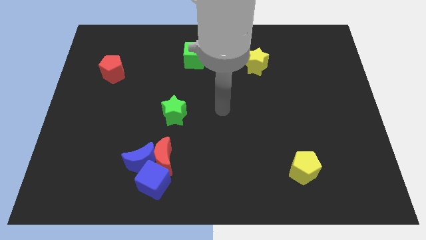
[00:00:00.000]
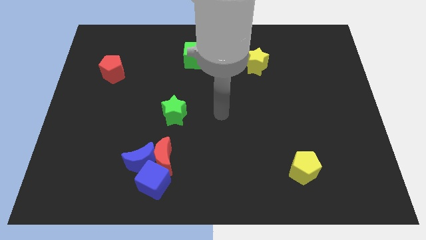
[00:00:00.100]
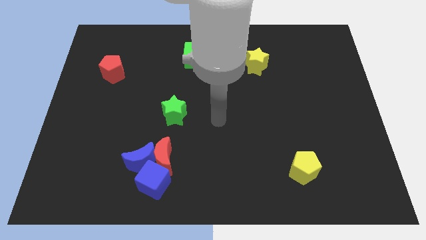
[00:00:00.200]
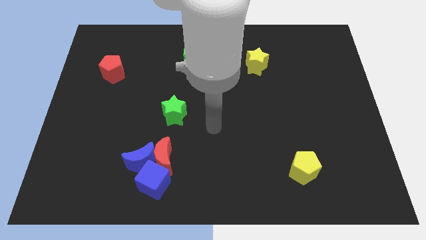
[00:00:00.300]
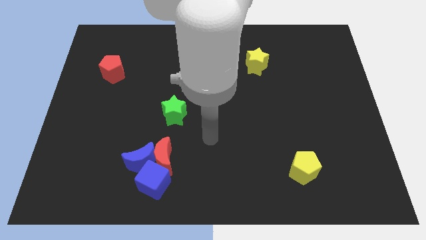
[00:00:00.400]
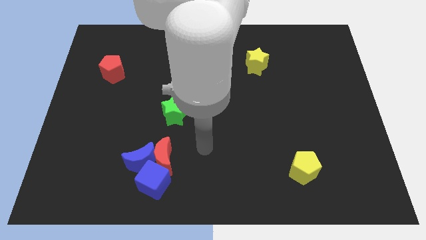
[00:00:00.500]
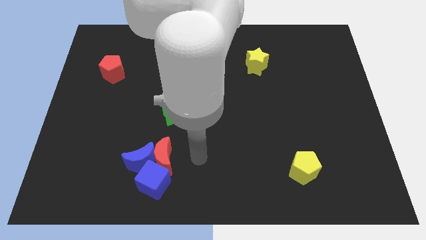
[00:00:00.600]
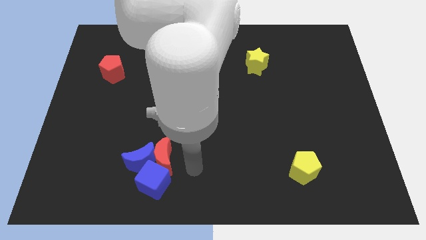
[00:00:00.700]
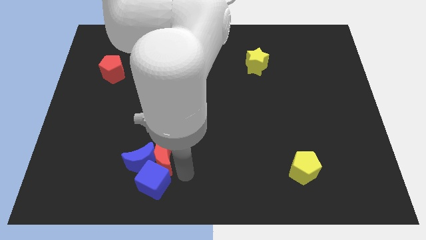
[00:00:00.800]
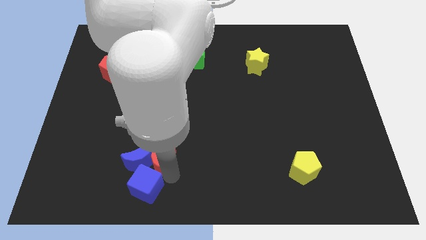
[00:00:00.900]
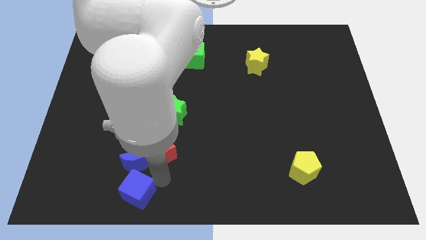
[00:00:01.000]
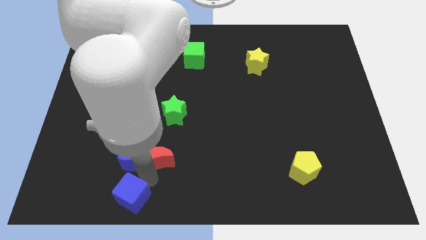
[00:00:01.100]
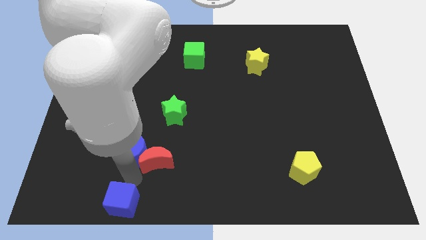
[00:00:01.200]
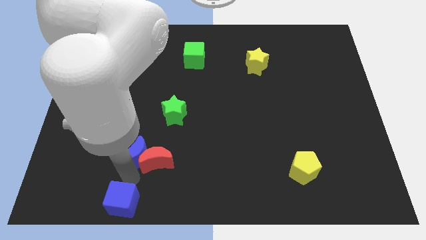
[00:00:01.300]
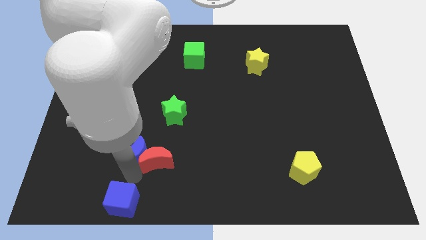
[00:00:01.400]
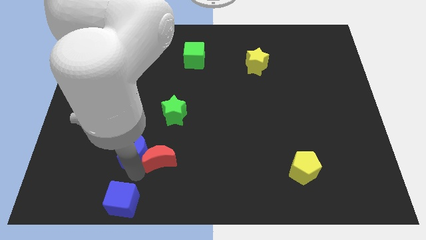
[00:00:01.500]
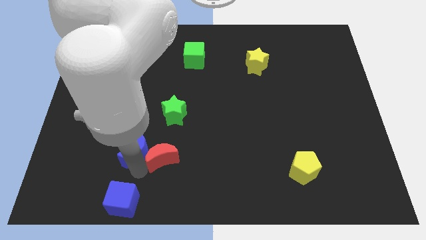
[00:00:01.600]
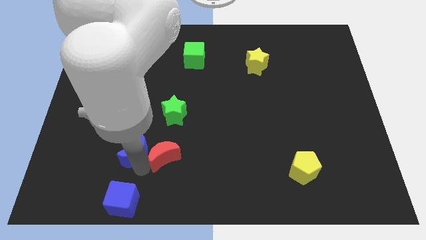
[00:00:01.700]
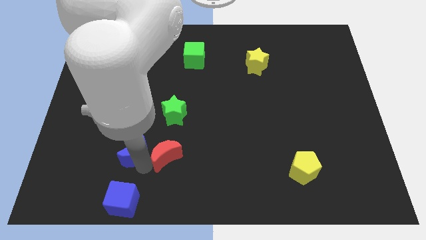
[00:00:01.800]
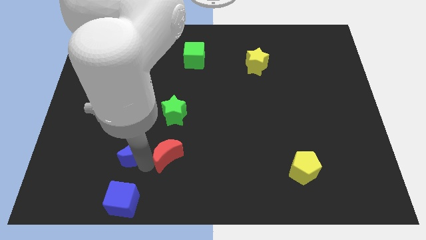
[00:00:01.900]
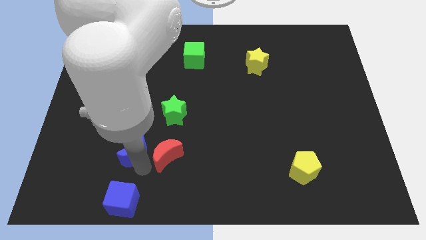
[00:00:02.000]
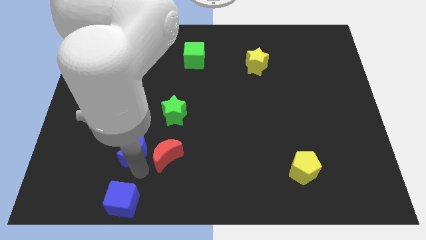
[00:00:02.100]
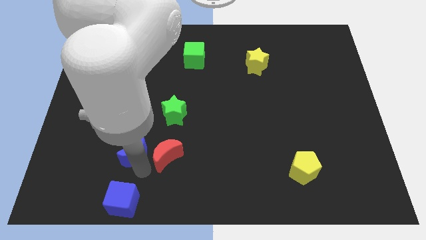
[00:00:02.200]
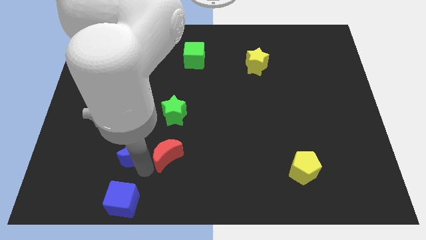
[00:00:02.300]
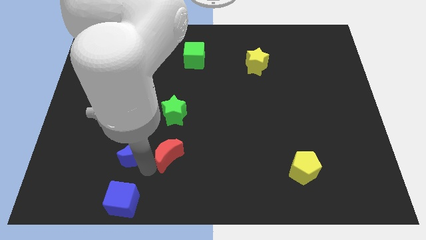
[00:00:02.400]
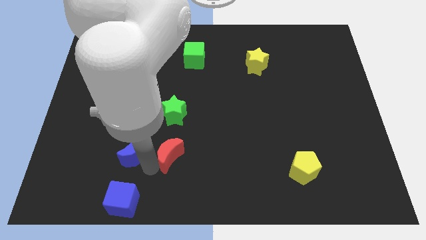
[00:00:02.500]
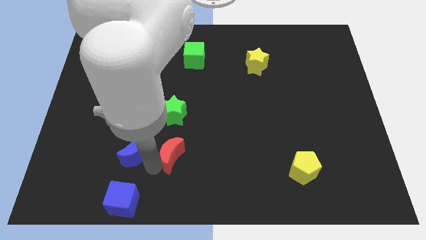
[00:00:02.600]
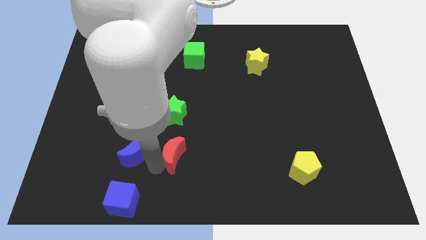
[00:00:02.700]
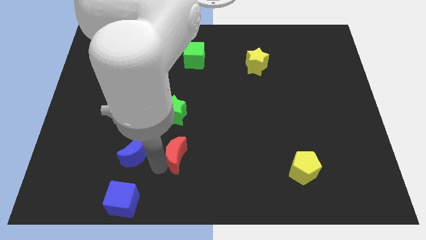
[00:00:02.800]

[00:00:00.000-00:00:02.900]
pull the red moon apart from the blue moon and blue cube

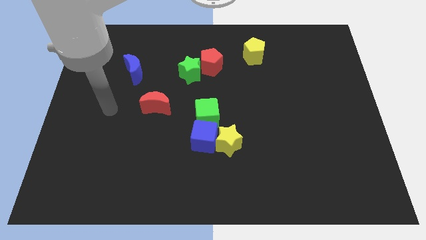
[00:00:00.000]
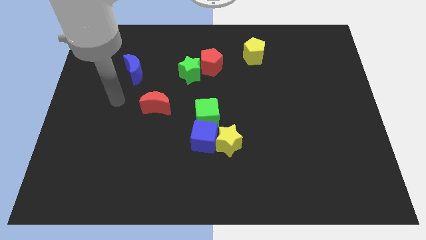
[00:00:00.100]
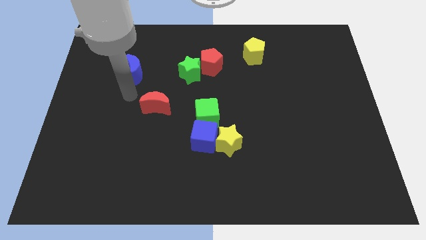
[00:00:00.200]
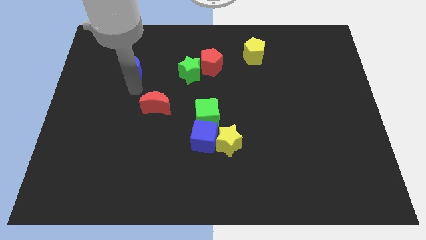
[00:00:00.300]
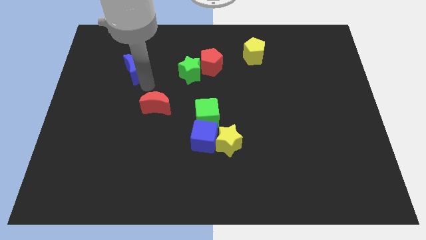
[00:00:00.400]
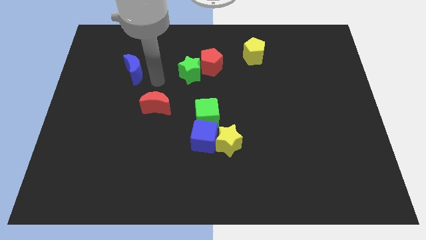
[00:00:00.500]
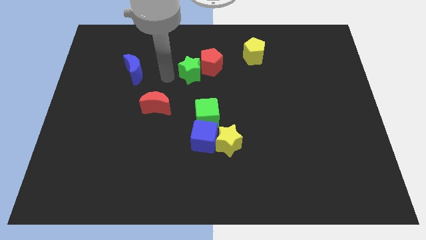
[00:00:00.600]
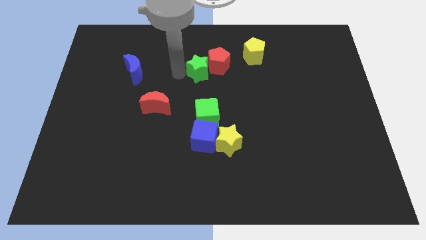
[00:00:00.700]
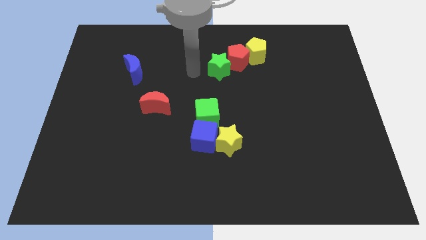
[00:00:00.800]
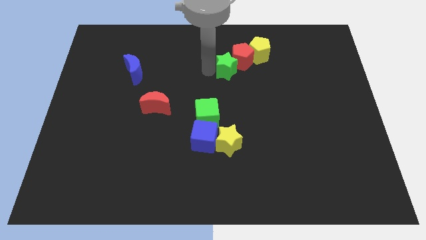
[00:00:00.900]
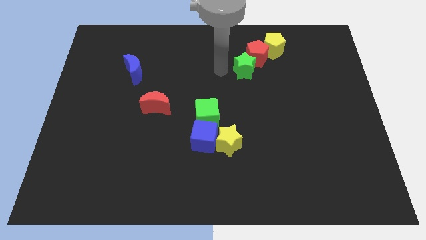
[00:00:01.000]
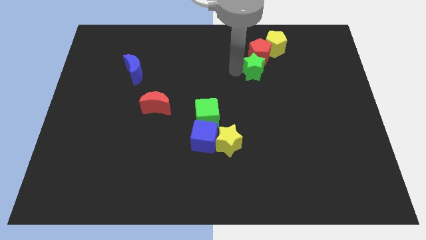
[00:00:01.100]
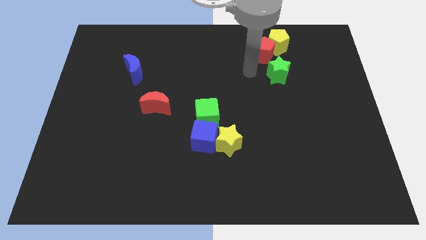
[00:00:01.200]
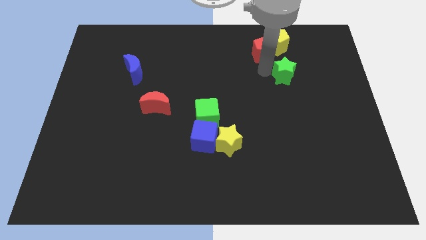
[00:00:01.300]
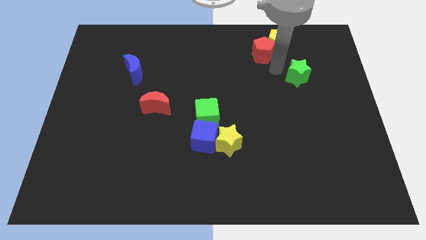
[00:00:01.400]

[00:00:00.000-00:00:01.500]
move the red pentagon away from the green star

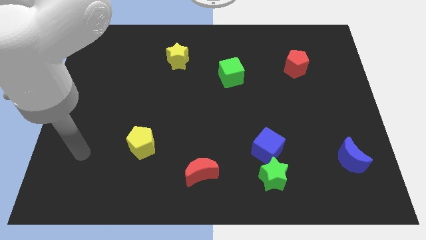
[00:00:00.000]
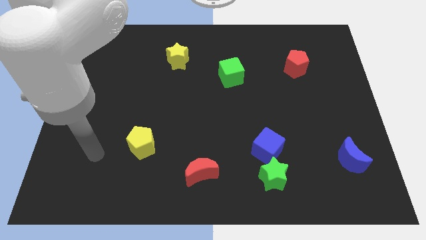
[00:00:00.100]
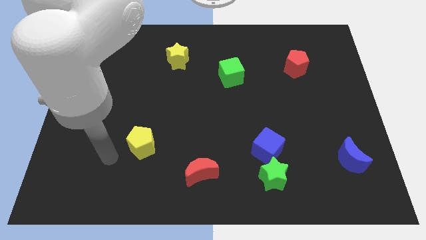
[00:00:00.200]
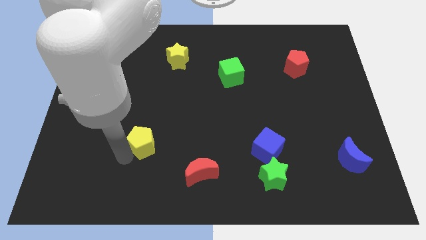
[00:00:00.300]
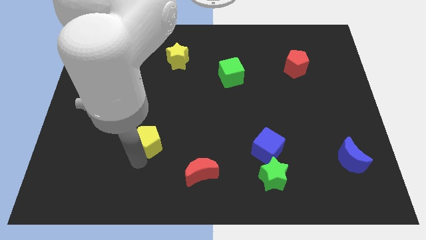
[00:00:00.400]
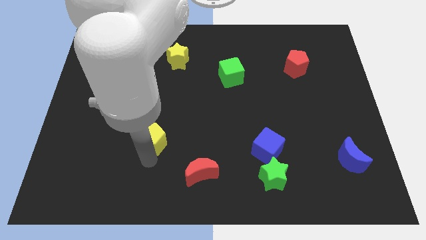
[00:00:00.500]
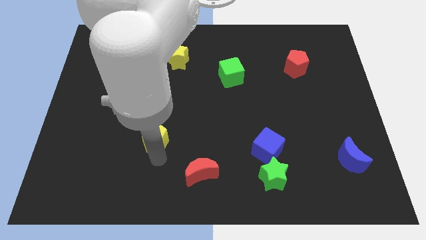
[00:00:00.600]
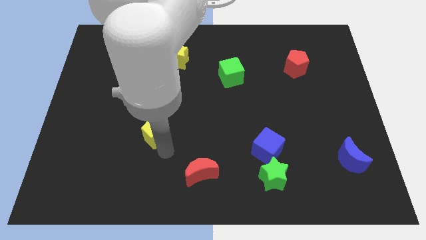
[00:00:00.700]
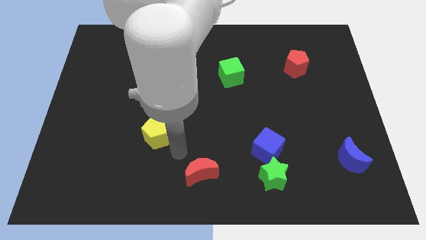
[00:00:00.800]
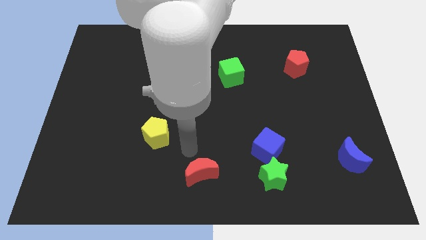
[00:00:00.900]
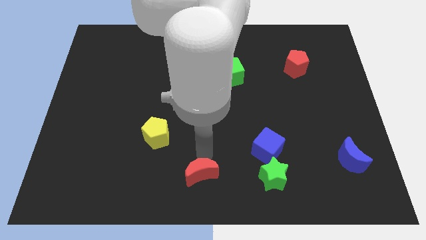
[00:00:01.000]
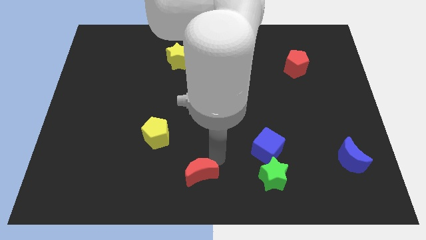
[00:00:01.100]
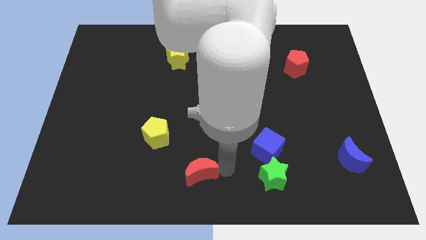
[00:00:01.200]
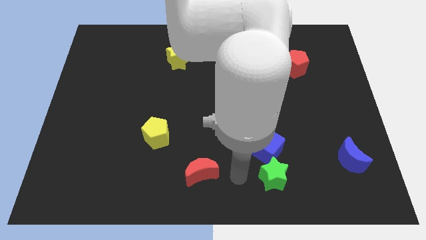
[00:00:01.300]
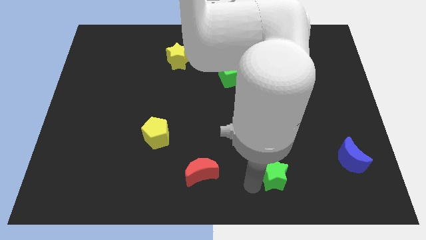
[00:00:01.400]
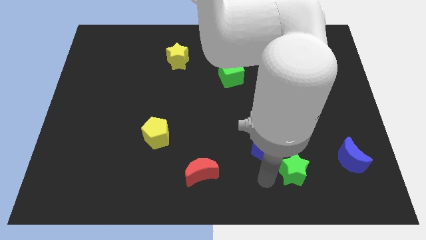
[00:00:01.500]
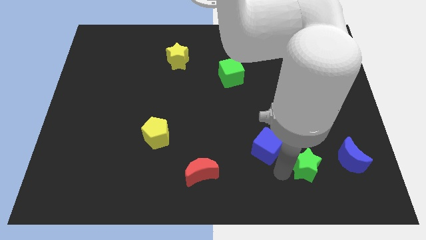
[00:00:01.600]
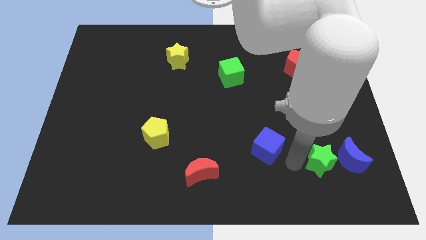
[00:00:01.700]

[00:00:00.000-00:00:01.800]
move the blue cube away from the green star

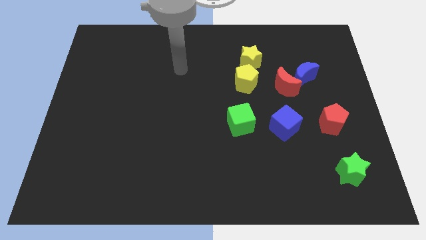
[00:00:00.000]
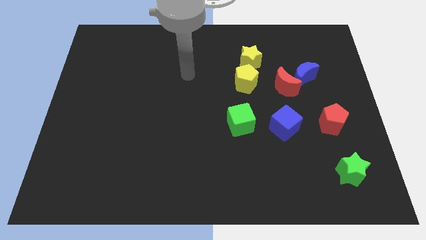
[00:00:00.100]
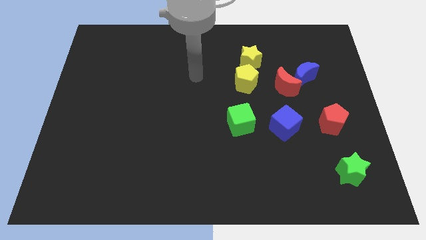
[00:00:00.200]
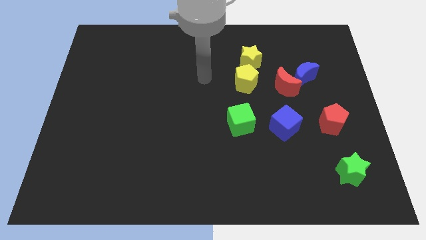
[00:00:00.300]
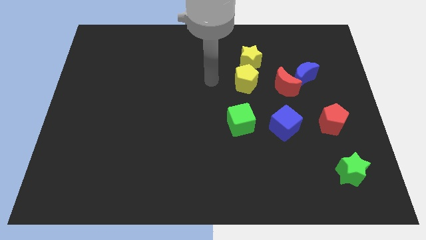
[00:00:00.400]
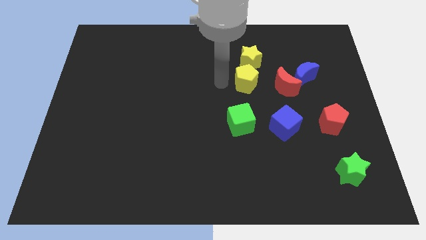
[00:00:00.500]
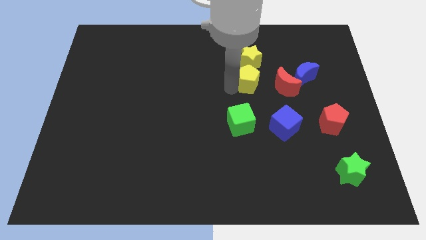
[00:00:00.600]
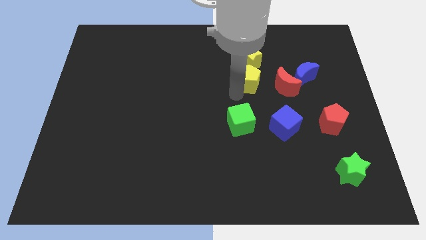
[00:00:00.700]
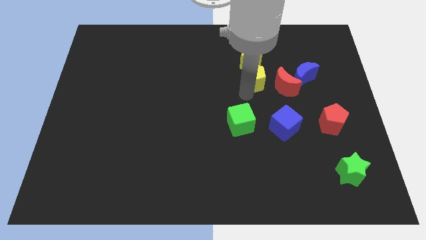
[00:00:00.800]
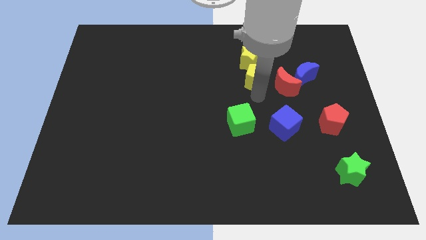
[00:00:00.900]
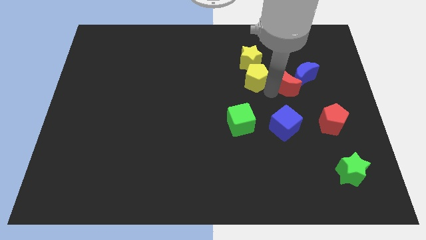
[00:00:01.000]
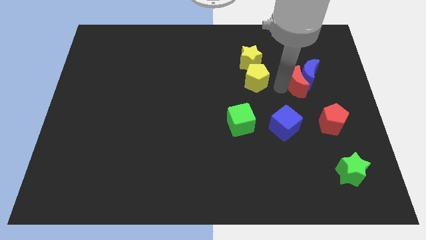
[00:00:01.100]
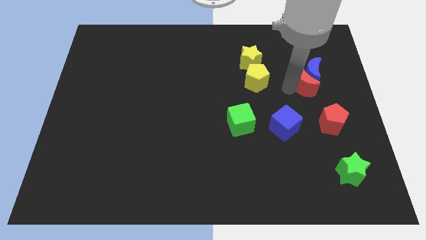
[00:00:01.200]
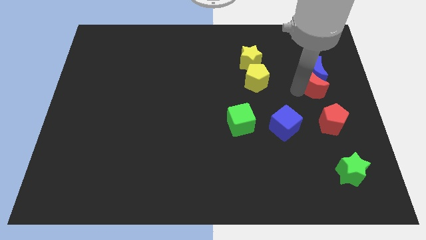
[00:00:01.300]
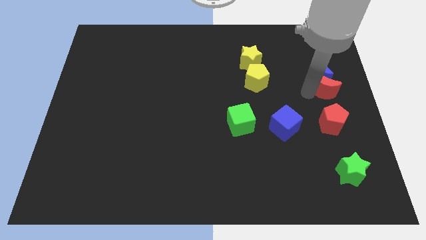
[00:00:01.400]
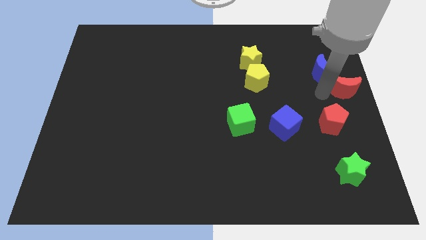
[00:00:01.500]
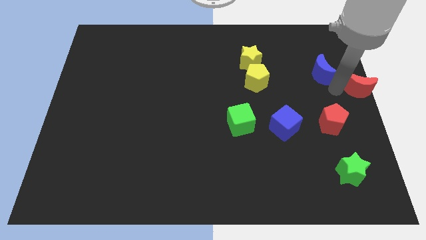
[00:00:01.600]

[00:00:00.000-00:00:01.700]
separate the blue moon from the red moon

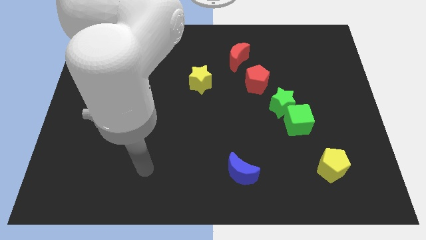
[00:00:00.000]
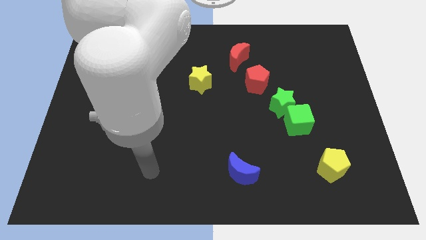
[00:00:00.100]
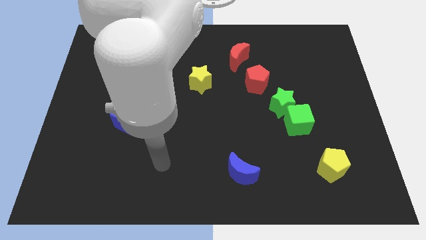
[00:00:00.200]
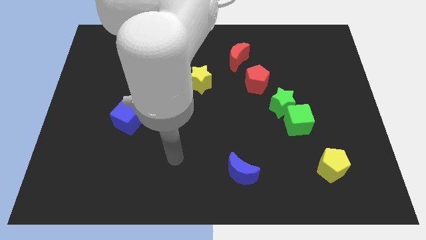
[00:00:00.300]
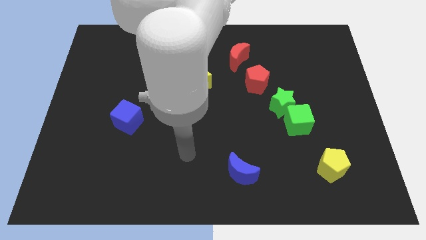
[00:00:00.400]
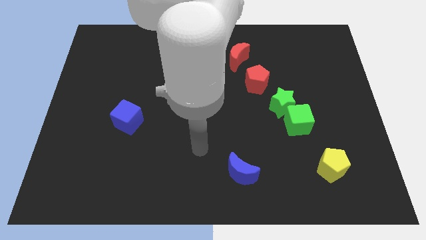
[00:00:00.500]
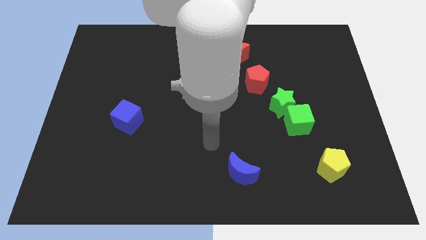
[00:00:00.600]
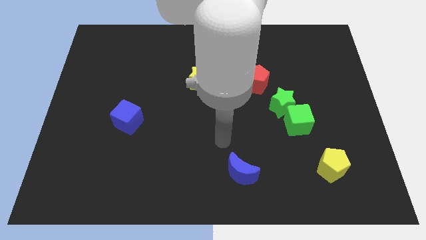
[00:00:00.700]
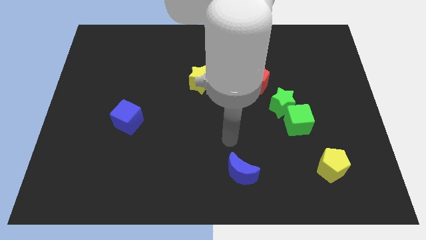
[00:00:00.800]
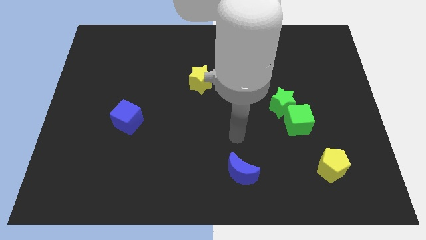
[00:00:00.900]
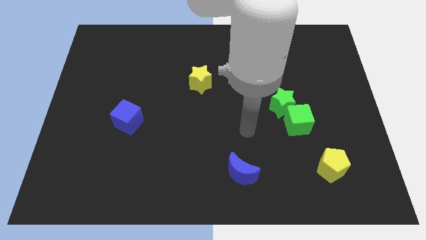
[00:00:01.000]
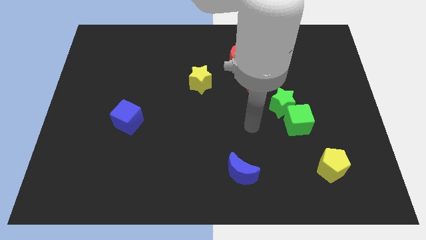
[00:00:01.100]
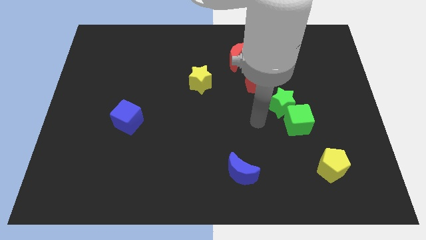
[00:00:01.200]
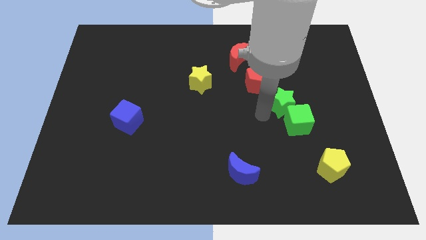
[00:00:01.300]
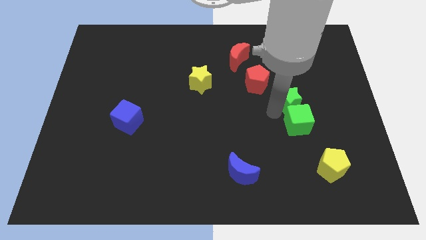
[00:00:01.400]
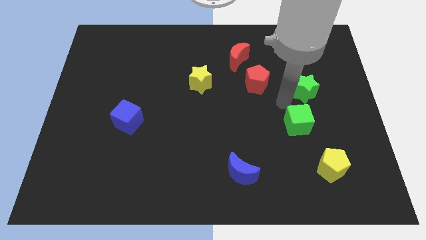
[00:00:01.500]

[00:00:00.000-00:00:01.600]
pull the green cube apart from the green star
